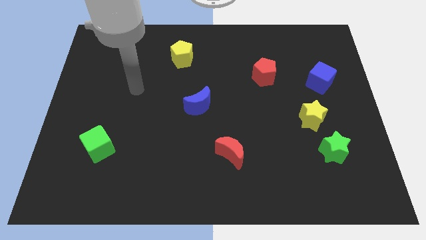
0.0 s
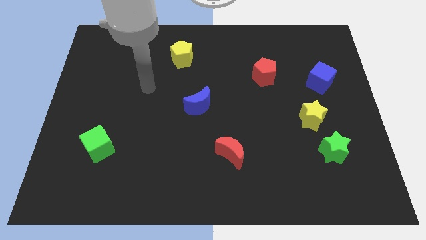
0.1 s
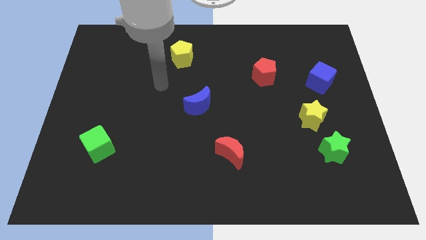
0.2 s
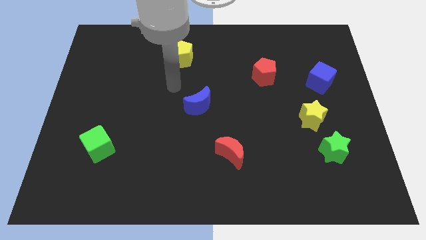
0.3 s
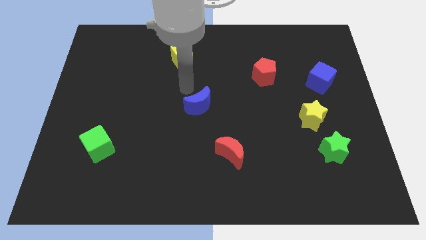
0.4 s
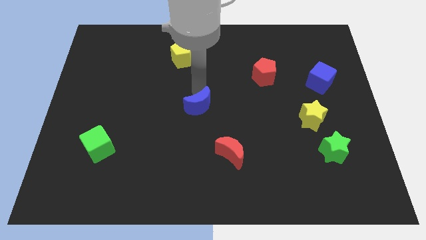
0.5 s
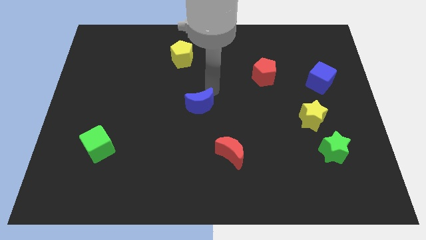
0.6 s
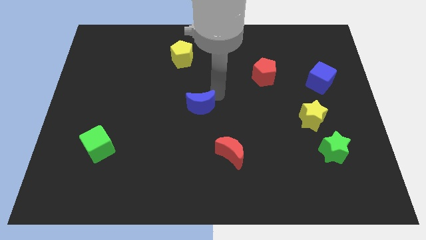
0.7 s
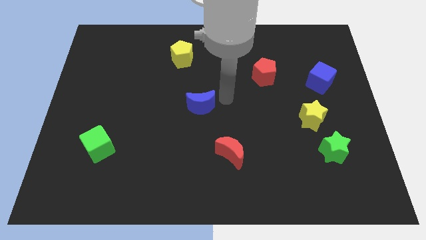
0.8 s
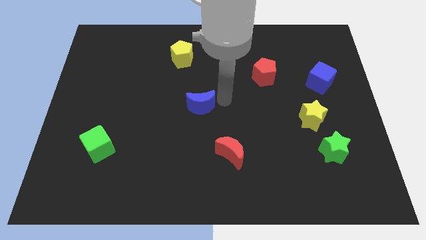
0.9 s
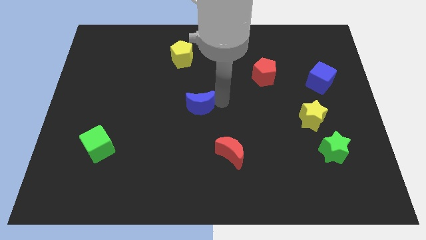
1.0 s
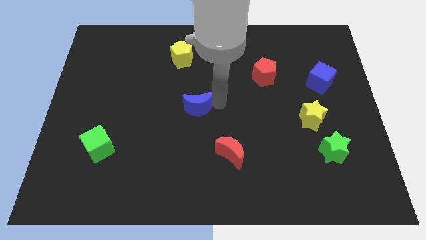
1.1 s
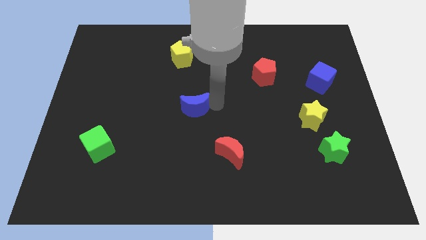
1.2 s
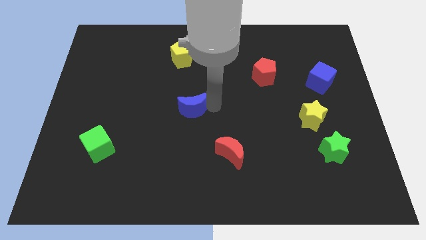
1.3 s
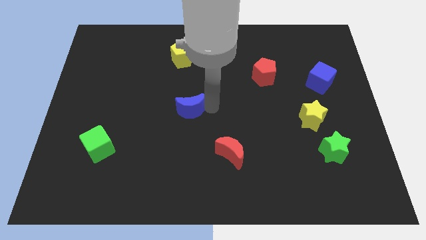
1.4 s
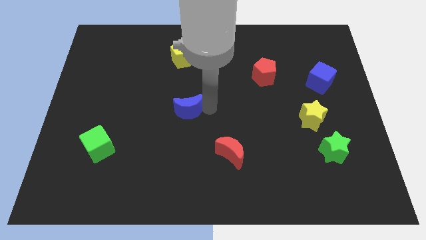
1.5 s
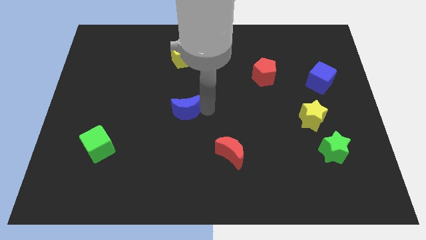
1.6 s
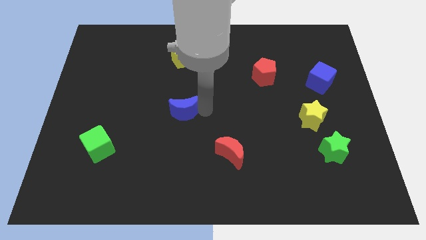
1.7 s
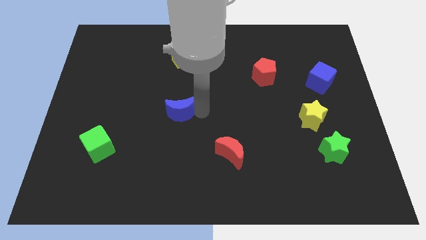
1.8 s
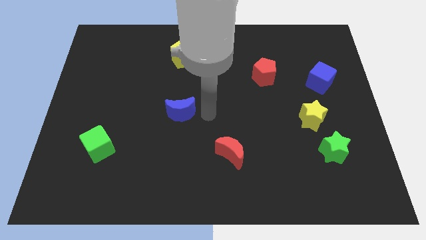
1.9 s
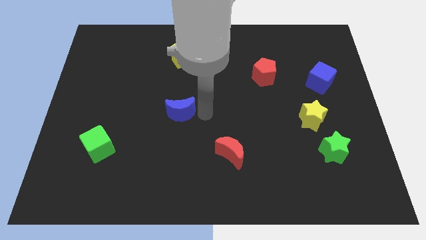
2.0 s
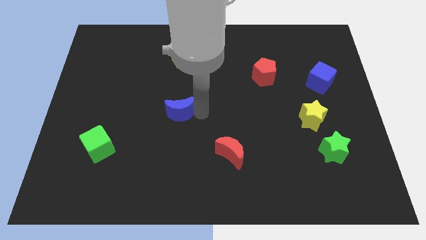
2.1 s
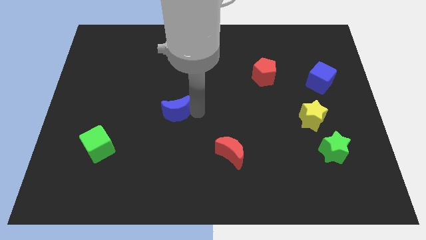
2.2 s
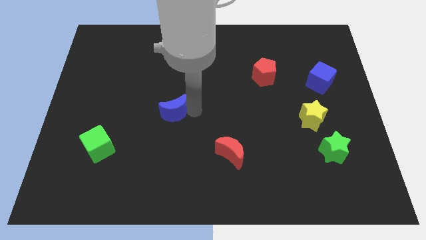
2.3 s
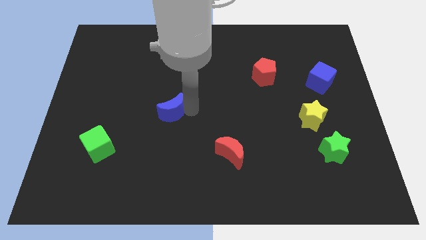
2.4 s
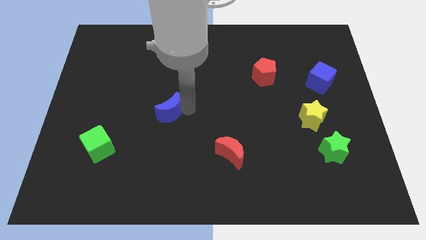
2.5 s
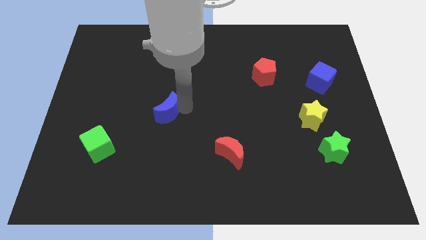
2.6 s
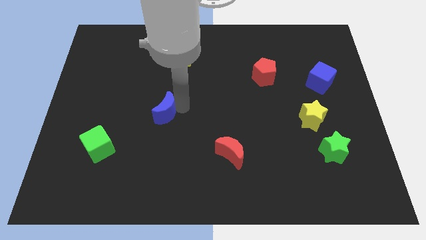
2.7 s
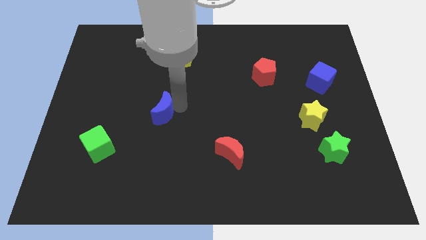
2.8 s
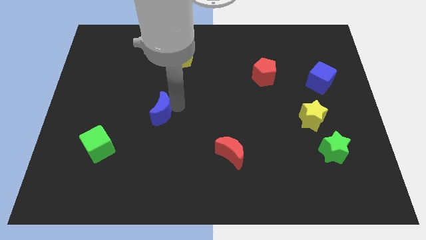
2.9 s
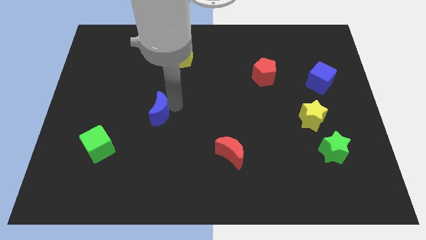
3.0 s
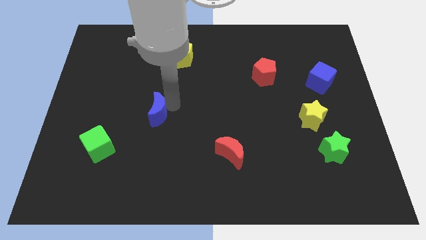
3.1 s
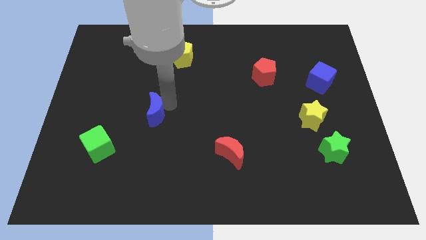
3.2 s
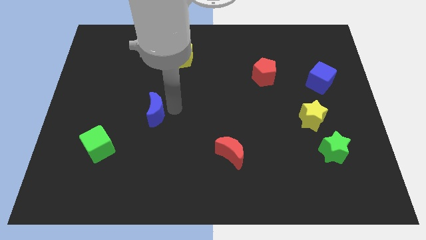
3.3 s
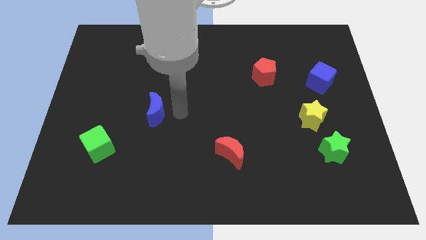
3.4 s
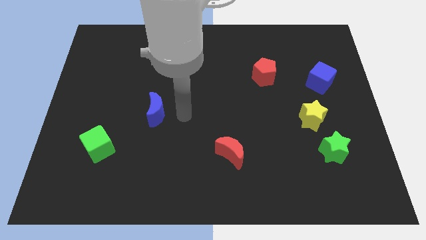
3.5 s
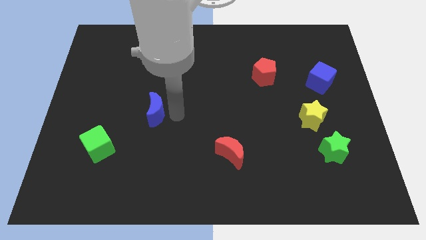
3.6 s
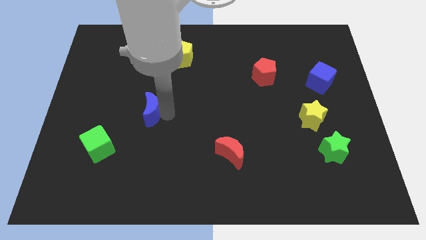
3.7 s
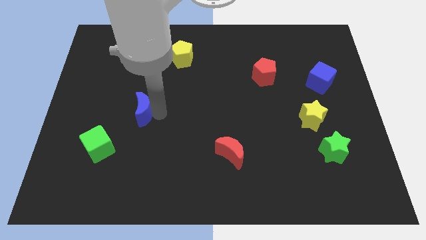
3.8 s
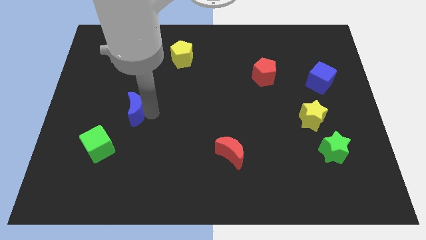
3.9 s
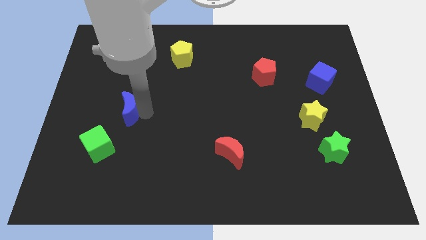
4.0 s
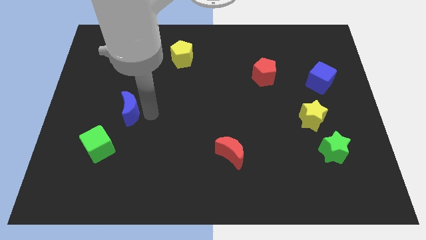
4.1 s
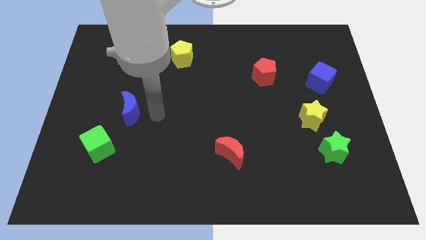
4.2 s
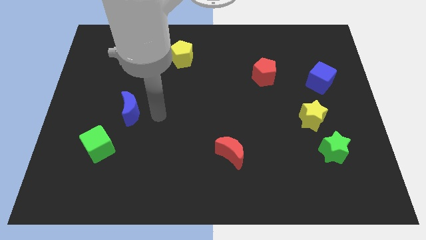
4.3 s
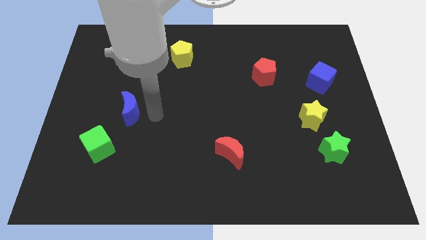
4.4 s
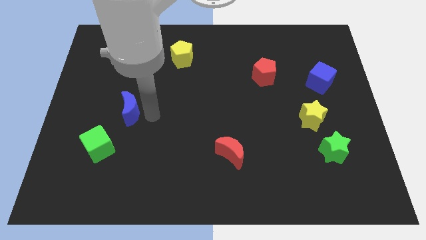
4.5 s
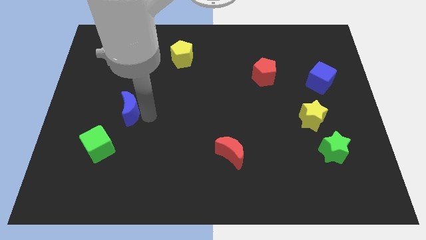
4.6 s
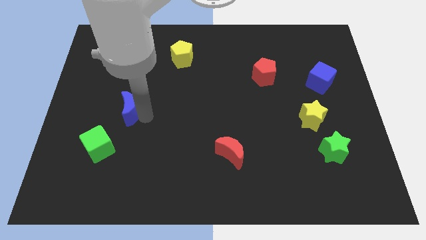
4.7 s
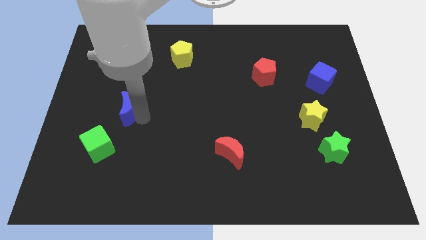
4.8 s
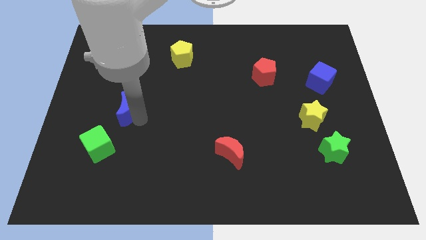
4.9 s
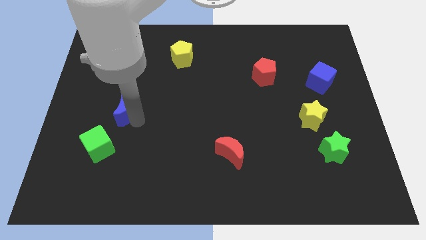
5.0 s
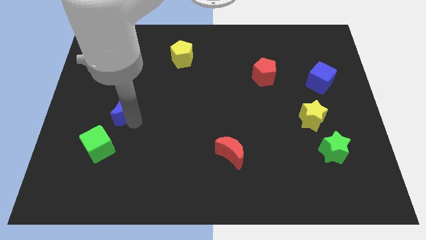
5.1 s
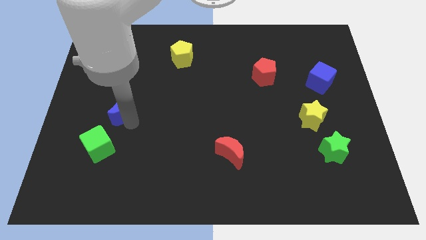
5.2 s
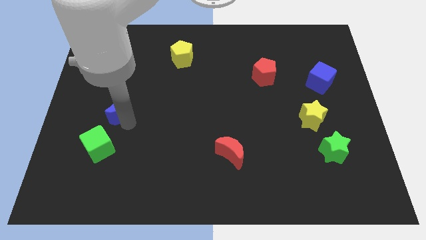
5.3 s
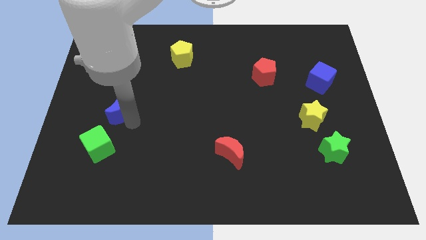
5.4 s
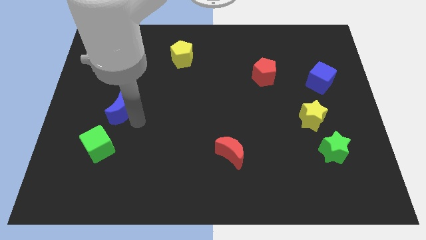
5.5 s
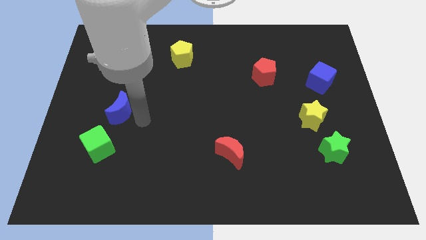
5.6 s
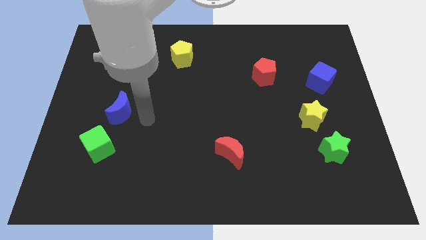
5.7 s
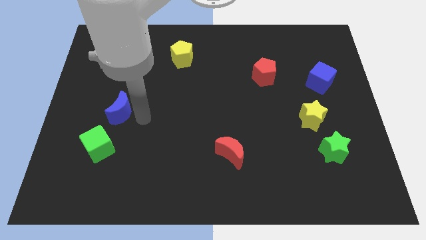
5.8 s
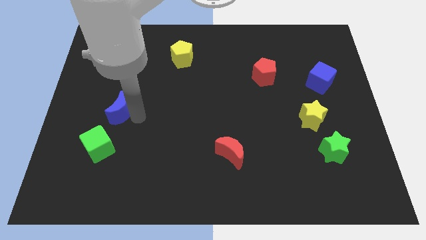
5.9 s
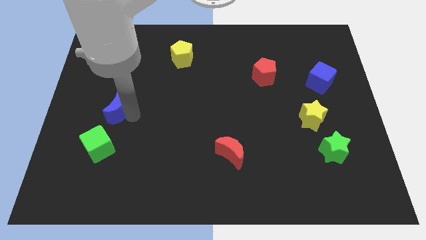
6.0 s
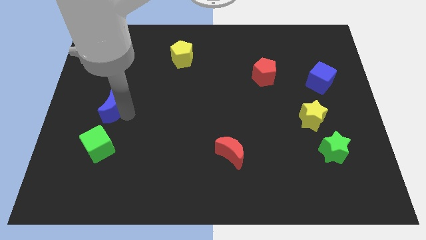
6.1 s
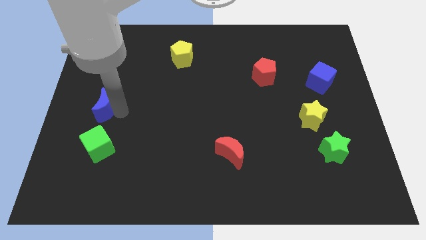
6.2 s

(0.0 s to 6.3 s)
put the blue moon to the center left
